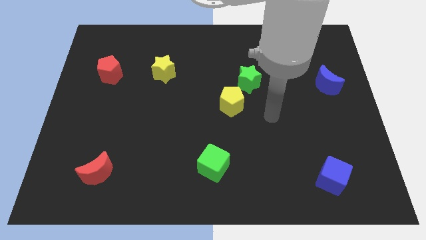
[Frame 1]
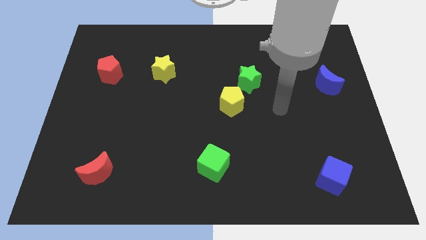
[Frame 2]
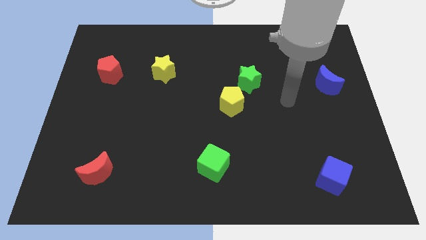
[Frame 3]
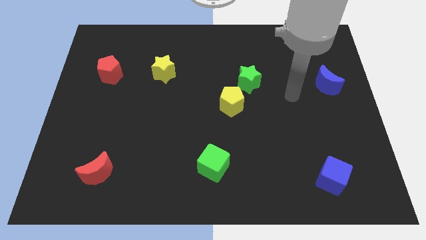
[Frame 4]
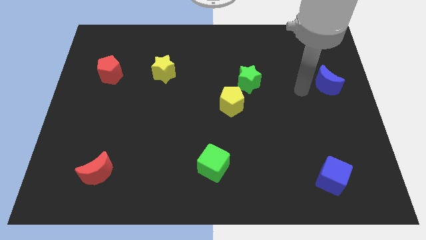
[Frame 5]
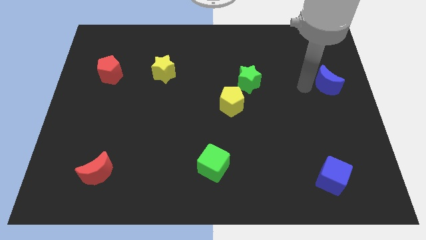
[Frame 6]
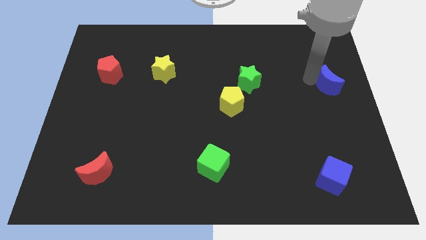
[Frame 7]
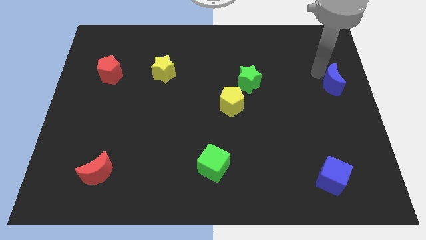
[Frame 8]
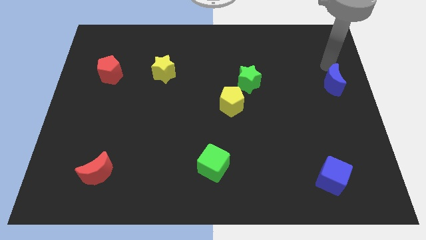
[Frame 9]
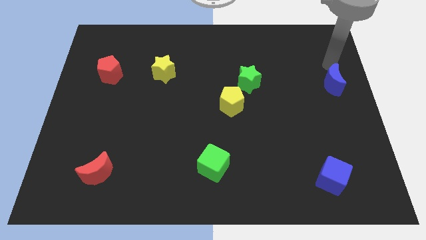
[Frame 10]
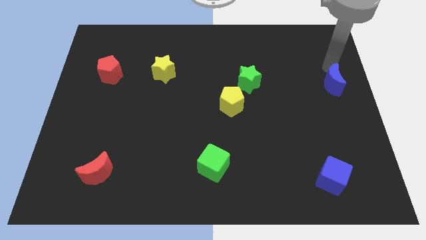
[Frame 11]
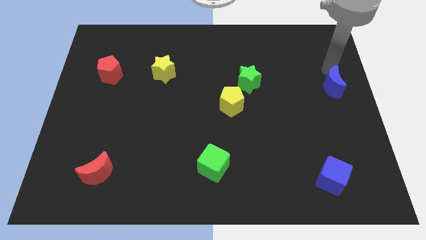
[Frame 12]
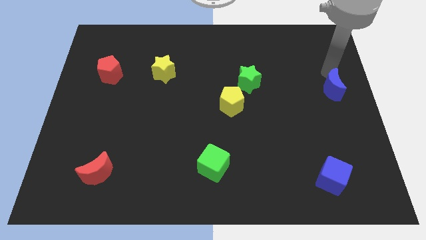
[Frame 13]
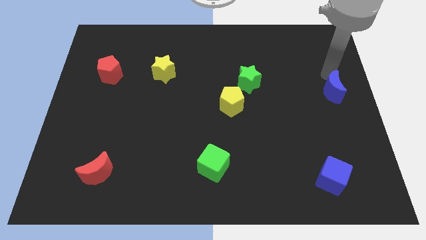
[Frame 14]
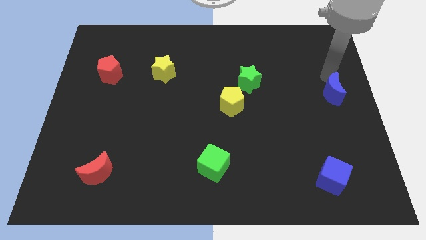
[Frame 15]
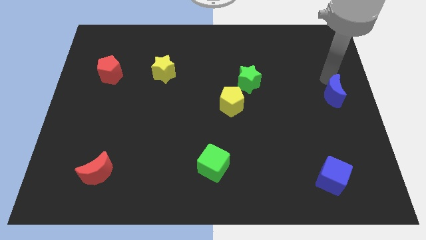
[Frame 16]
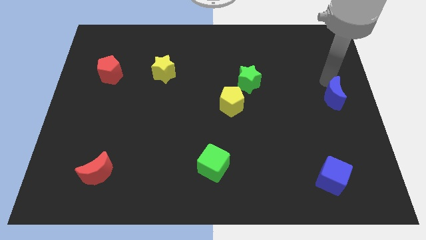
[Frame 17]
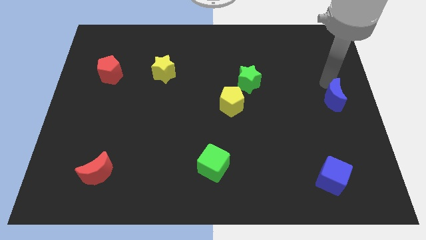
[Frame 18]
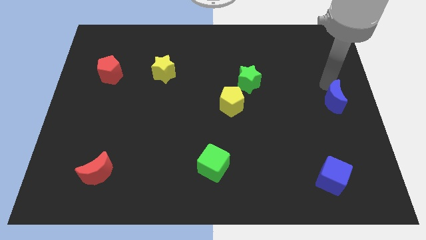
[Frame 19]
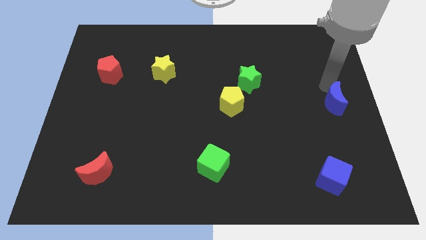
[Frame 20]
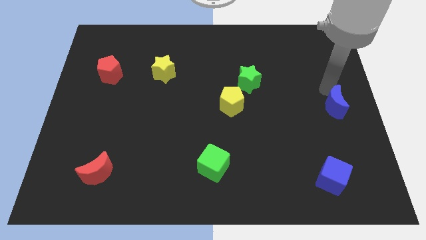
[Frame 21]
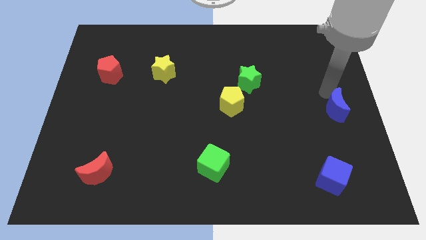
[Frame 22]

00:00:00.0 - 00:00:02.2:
push the blue moon down a little bit

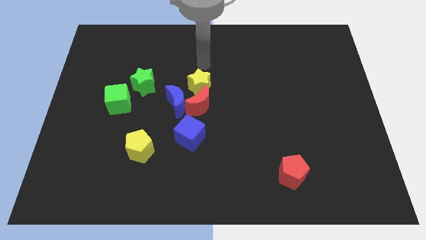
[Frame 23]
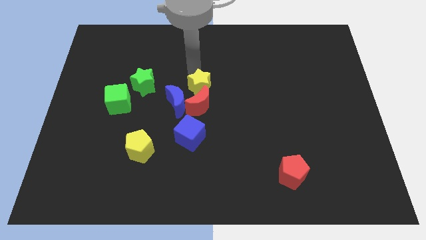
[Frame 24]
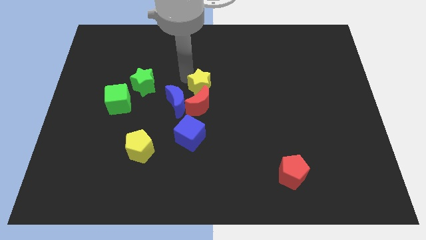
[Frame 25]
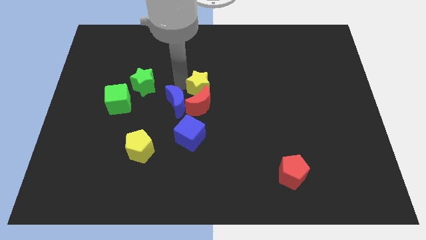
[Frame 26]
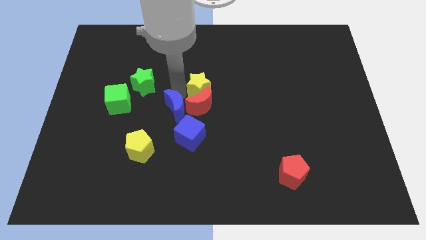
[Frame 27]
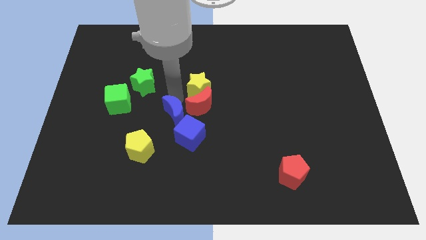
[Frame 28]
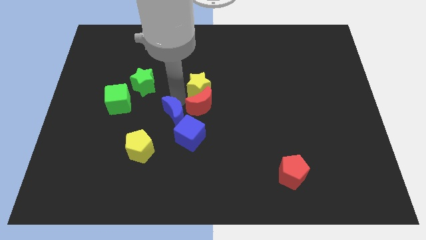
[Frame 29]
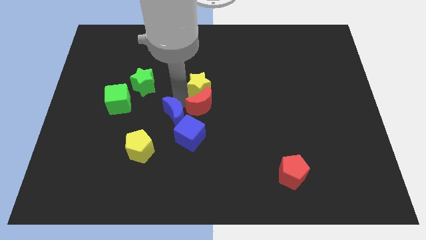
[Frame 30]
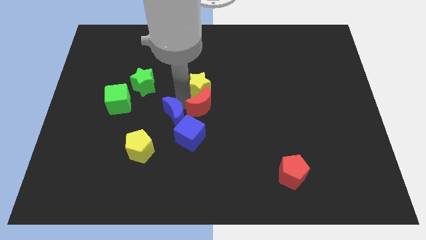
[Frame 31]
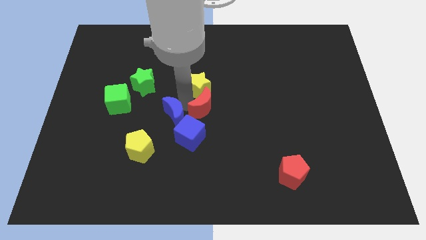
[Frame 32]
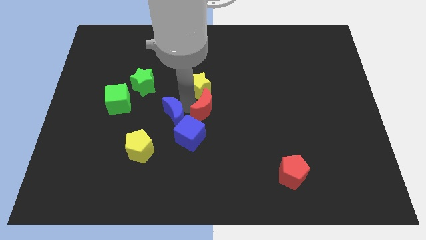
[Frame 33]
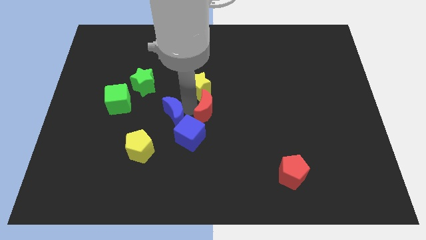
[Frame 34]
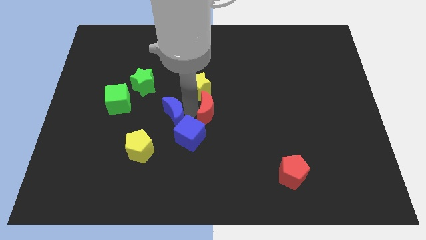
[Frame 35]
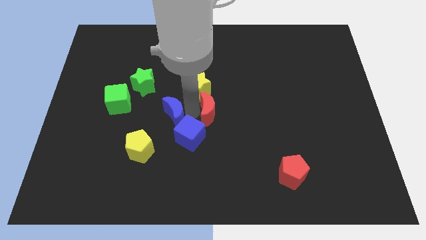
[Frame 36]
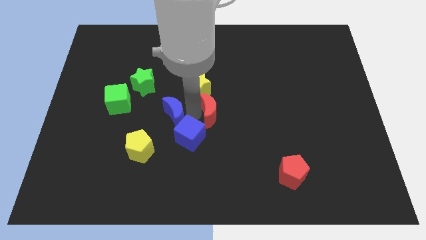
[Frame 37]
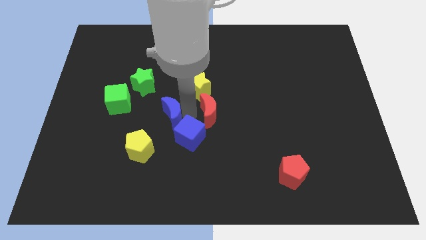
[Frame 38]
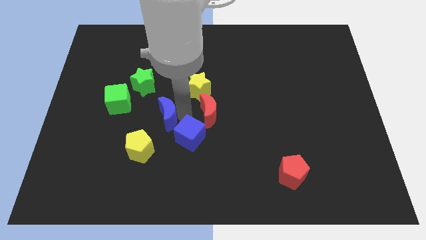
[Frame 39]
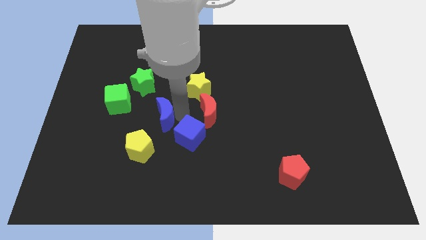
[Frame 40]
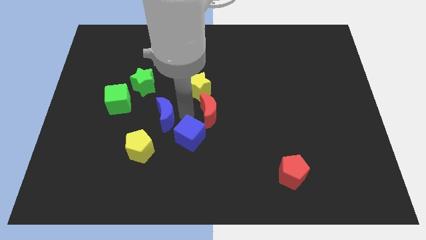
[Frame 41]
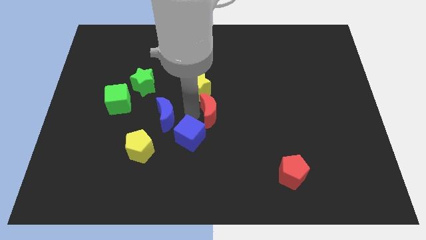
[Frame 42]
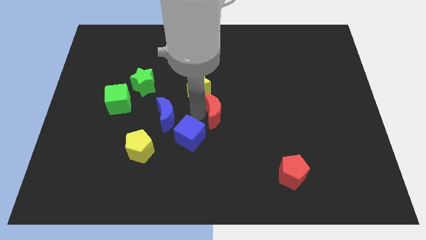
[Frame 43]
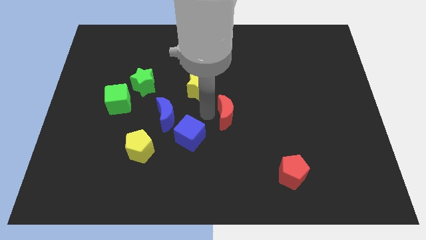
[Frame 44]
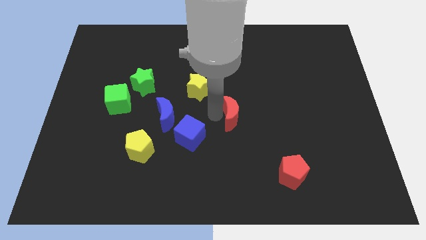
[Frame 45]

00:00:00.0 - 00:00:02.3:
move the red moon right somewhat

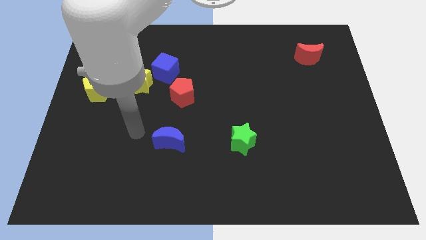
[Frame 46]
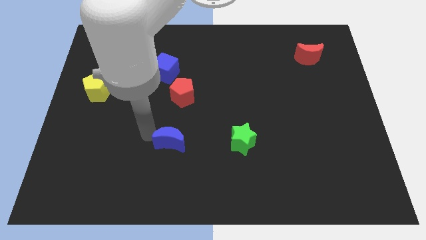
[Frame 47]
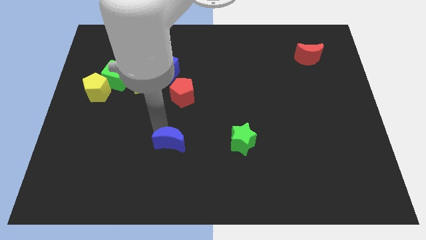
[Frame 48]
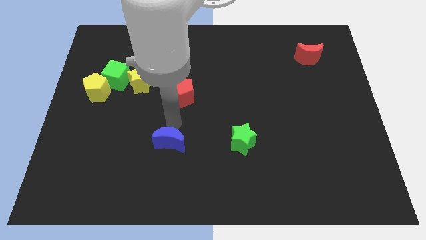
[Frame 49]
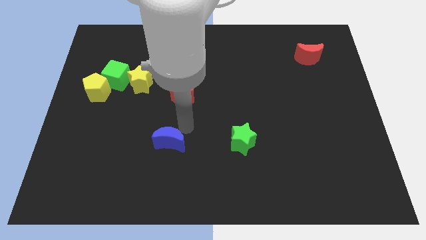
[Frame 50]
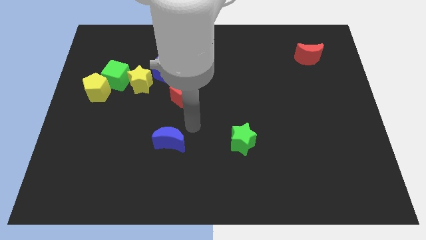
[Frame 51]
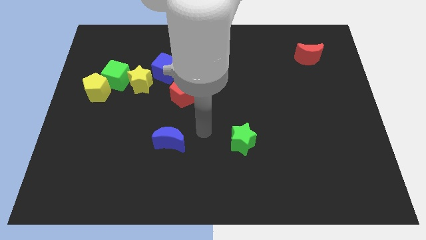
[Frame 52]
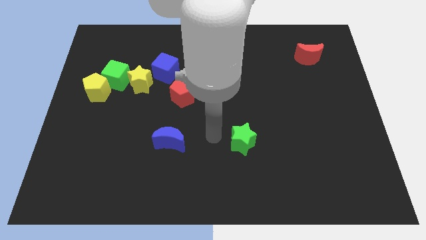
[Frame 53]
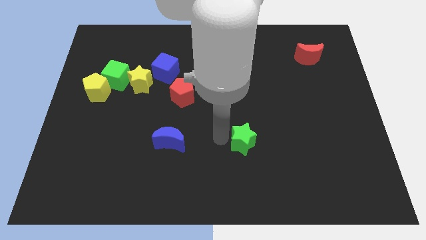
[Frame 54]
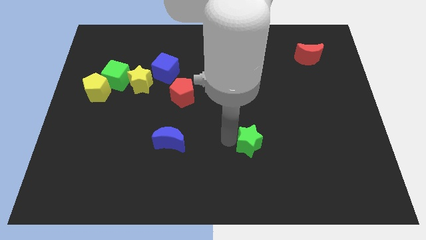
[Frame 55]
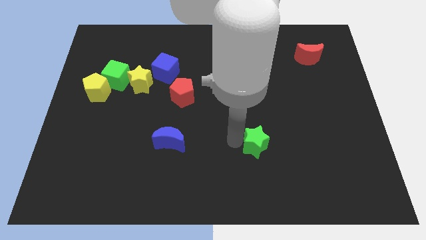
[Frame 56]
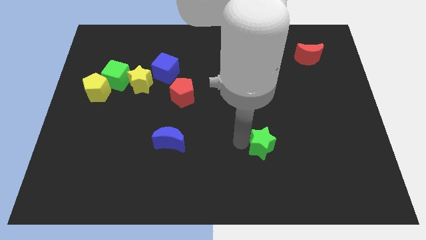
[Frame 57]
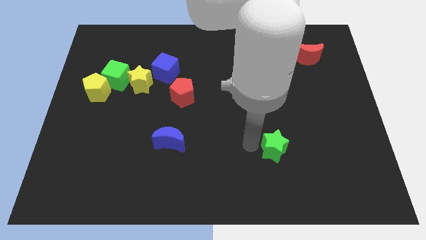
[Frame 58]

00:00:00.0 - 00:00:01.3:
slightly push the green star right

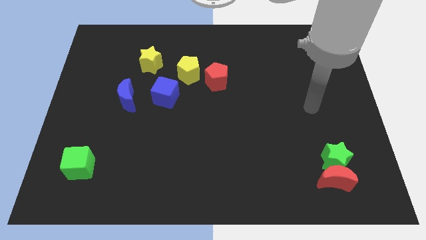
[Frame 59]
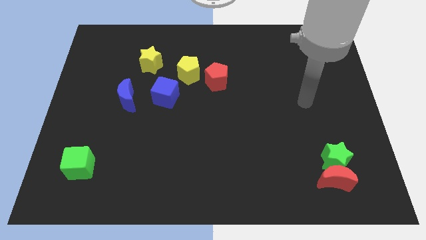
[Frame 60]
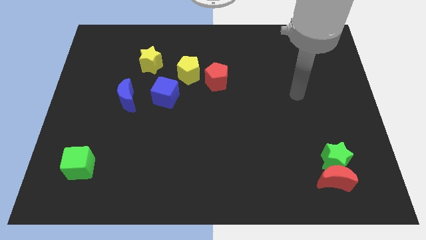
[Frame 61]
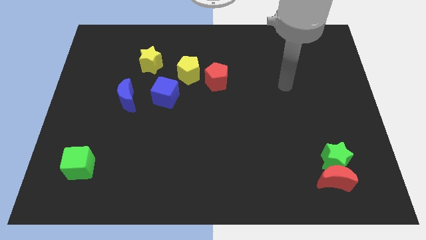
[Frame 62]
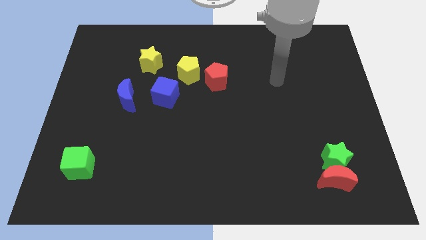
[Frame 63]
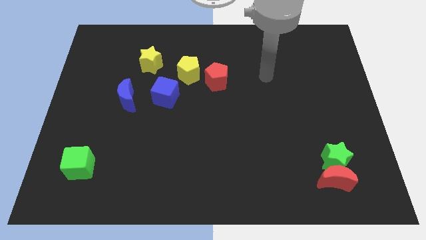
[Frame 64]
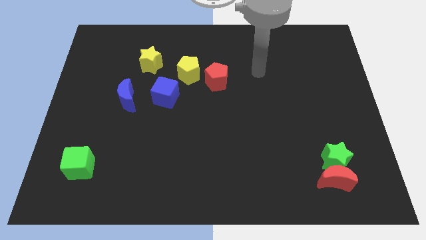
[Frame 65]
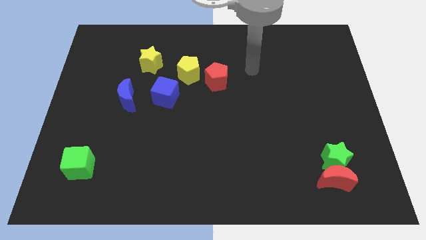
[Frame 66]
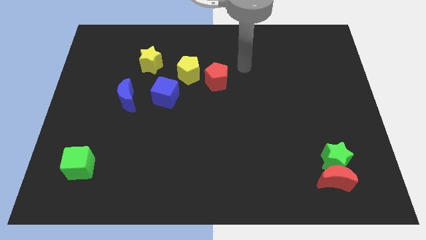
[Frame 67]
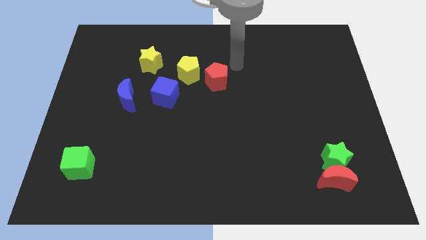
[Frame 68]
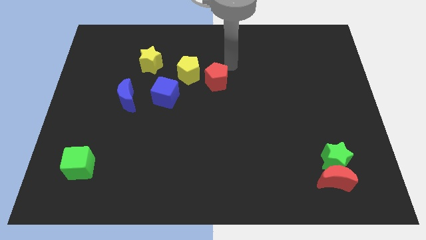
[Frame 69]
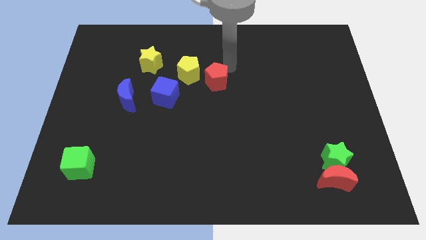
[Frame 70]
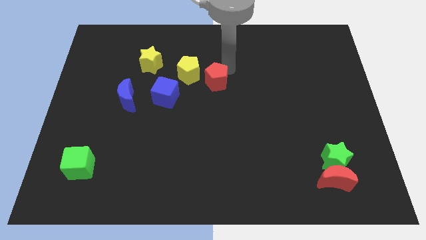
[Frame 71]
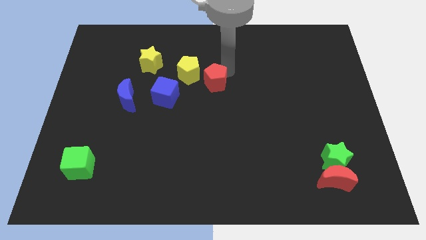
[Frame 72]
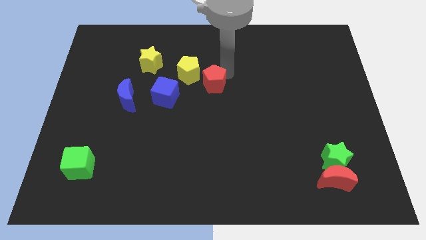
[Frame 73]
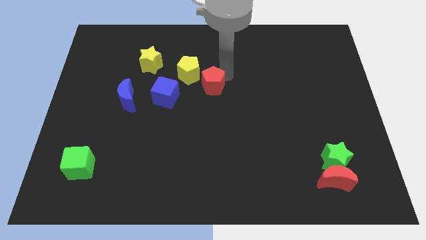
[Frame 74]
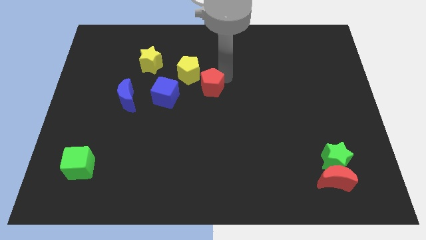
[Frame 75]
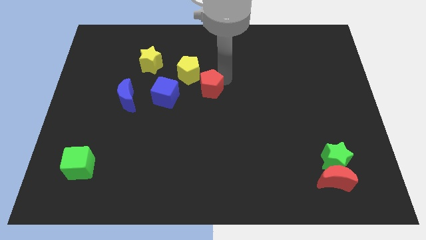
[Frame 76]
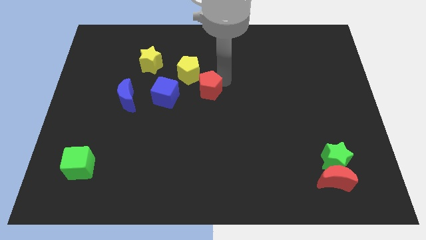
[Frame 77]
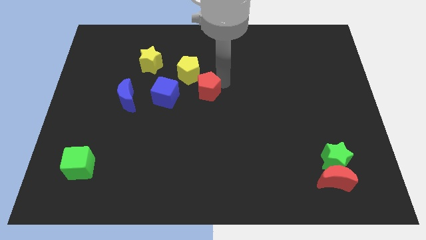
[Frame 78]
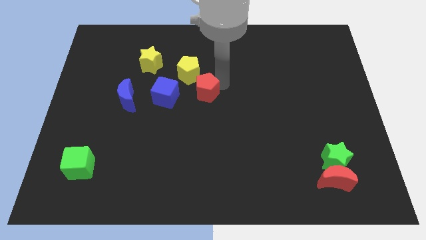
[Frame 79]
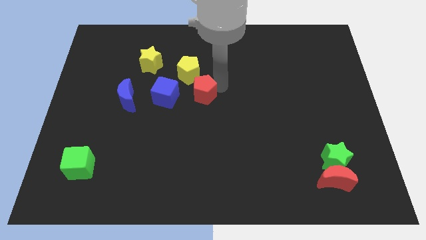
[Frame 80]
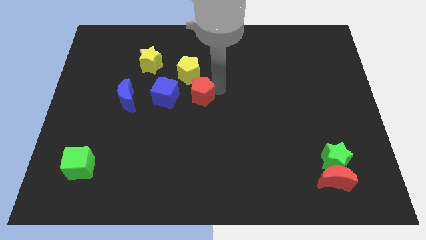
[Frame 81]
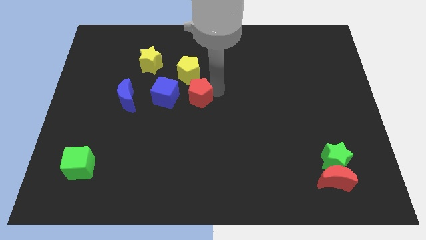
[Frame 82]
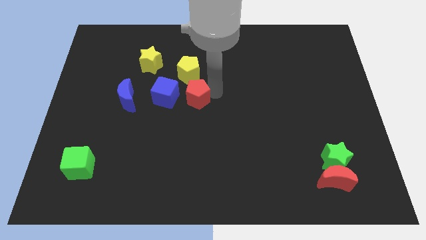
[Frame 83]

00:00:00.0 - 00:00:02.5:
move the red pentagon a little down and left

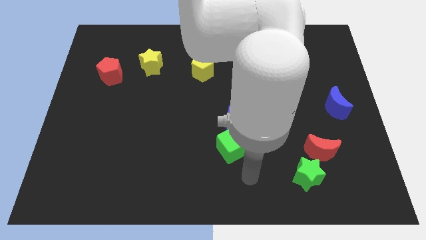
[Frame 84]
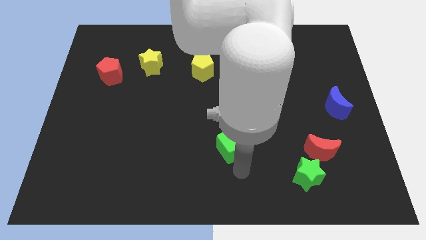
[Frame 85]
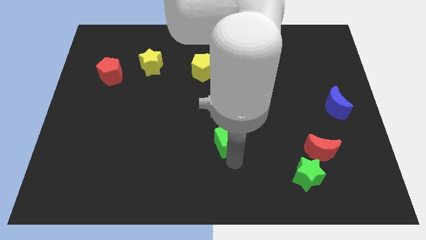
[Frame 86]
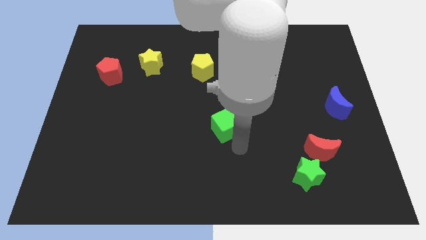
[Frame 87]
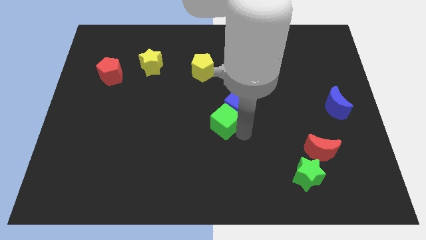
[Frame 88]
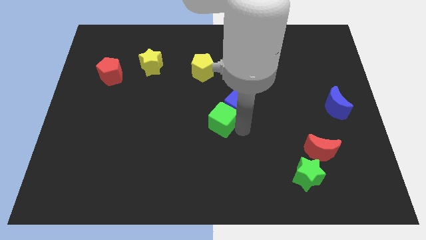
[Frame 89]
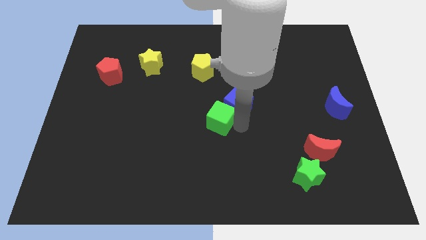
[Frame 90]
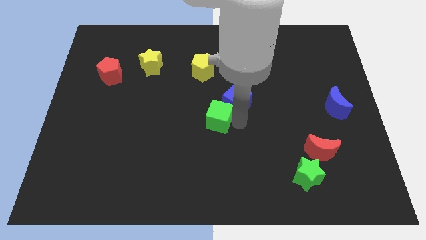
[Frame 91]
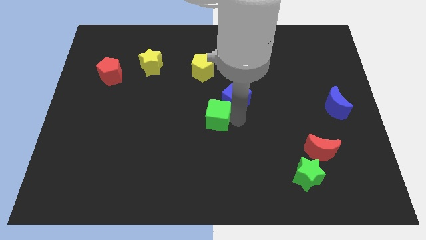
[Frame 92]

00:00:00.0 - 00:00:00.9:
slightly move the blue cube up
